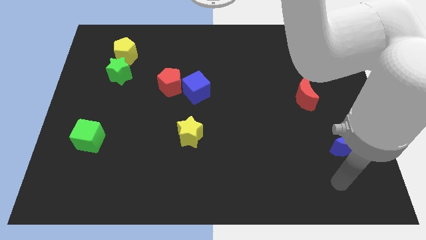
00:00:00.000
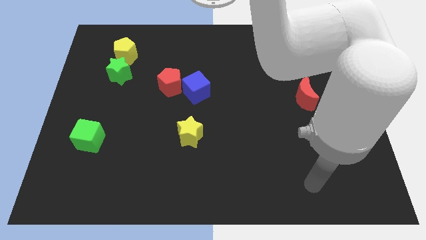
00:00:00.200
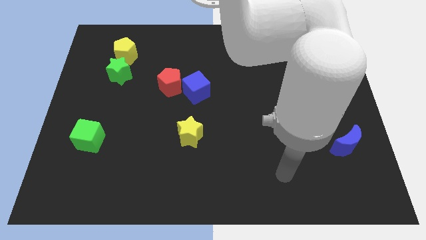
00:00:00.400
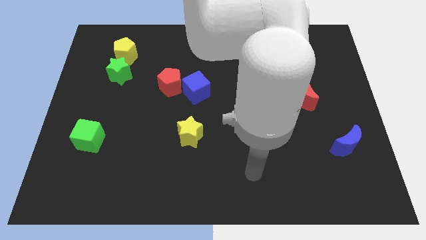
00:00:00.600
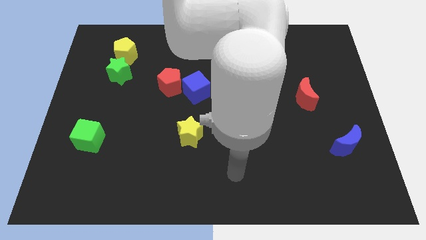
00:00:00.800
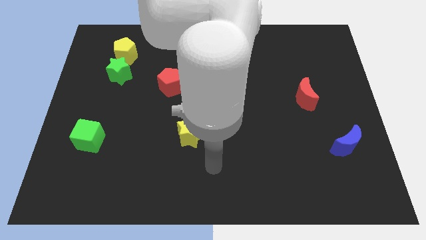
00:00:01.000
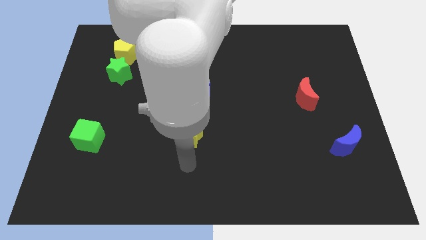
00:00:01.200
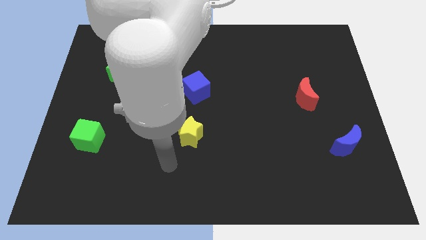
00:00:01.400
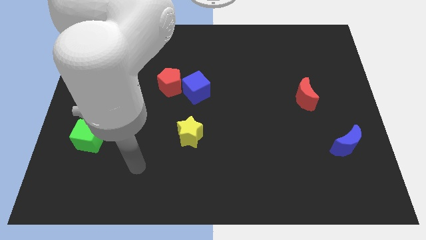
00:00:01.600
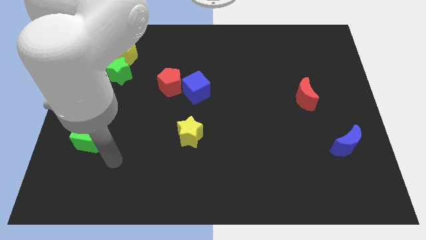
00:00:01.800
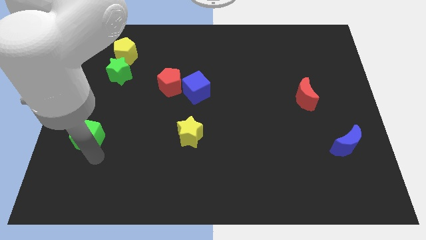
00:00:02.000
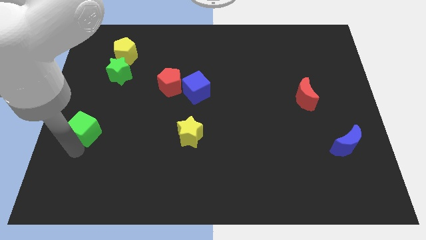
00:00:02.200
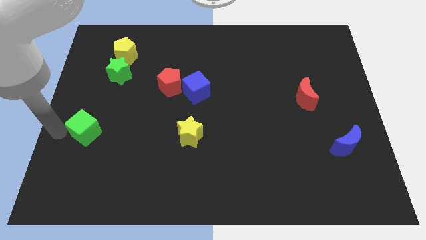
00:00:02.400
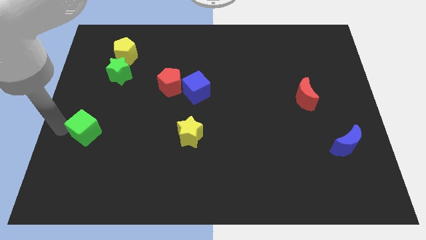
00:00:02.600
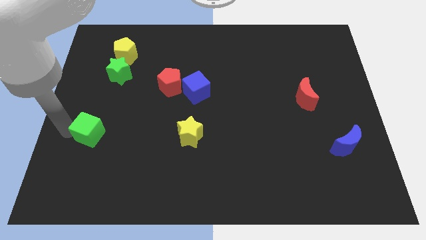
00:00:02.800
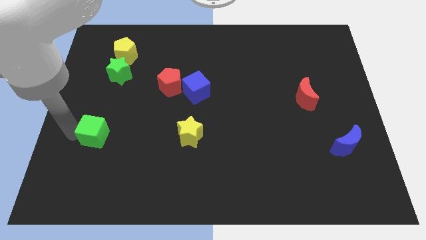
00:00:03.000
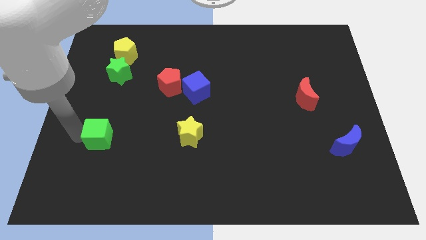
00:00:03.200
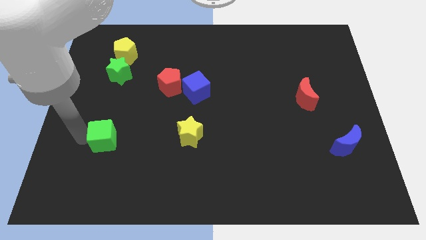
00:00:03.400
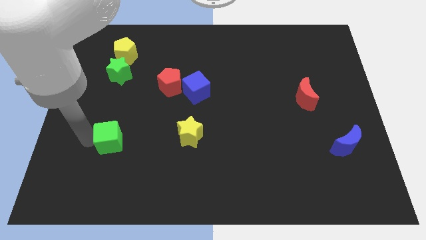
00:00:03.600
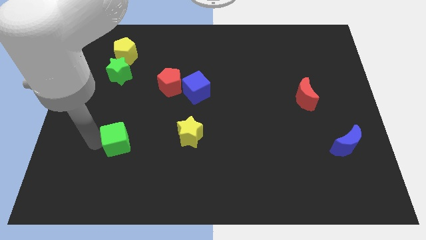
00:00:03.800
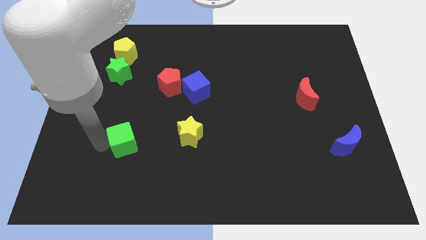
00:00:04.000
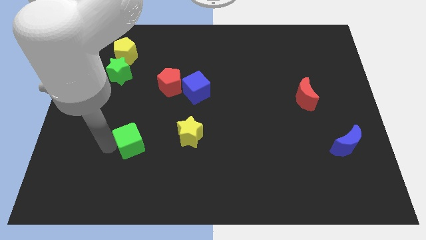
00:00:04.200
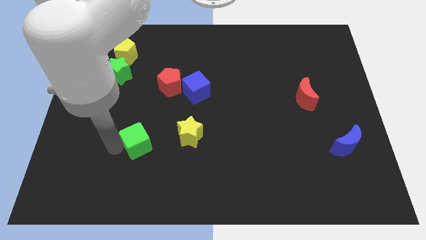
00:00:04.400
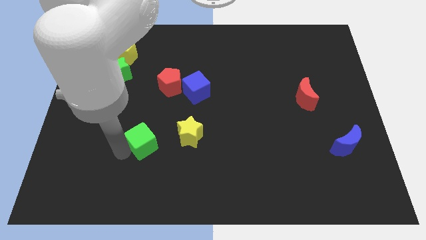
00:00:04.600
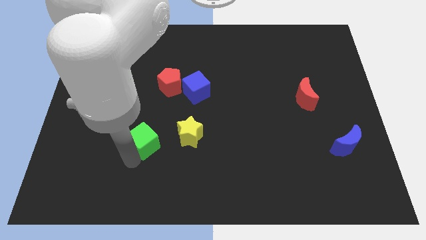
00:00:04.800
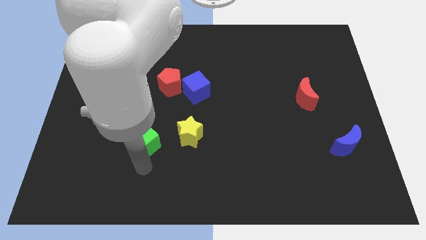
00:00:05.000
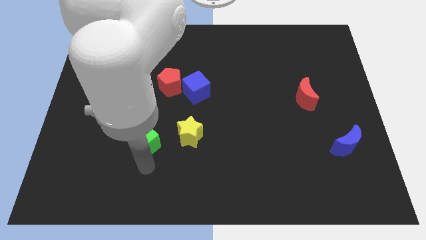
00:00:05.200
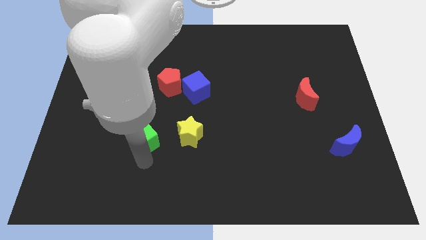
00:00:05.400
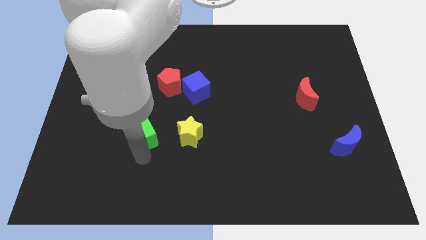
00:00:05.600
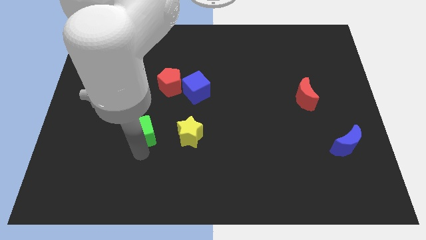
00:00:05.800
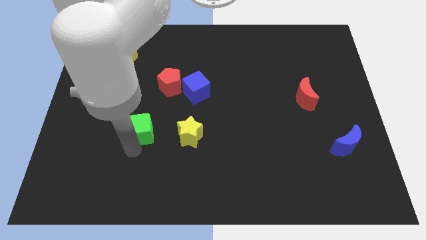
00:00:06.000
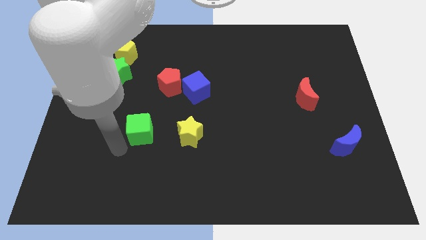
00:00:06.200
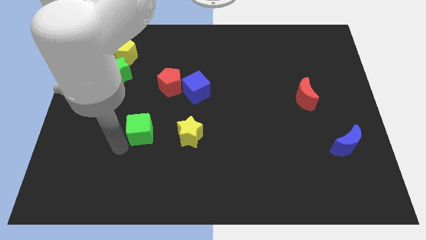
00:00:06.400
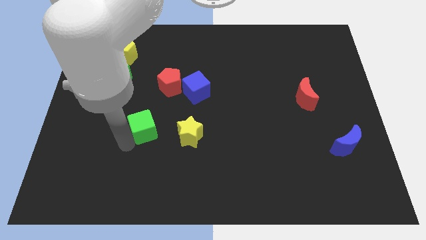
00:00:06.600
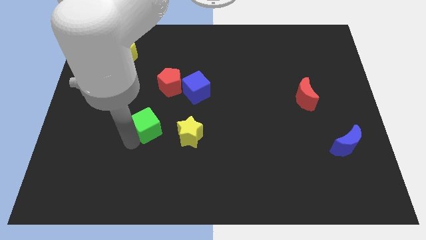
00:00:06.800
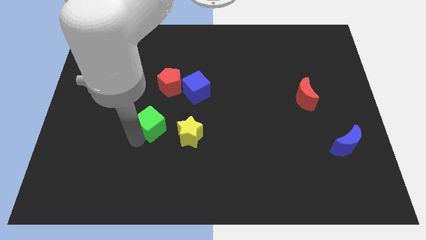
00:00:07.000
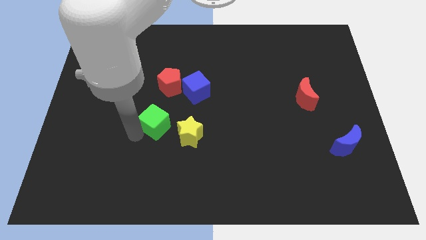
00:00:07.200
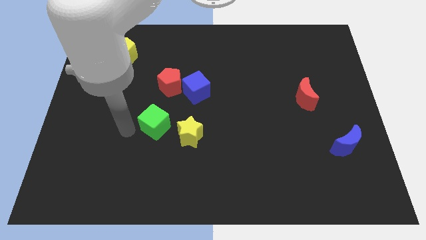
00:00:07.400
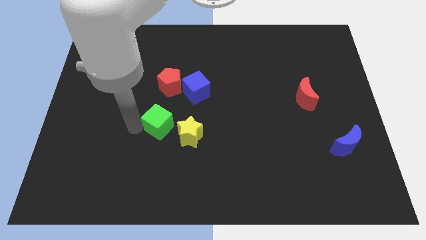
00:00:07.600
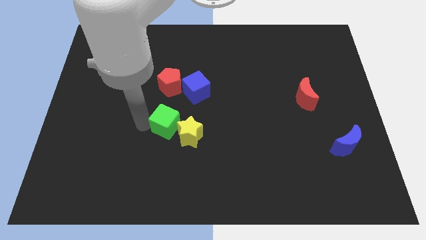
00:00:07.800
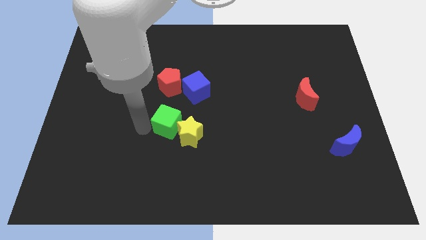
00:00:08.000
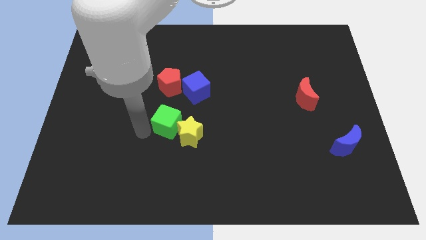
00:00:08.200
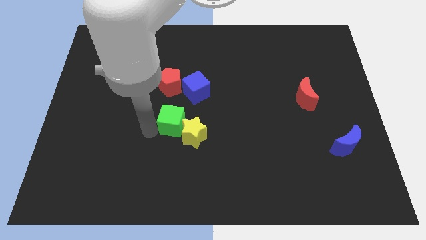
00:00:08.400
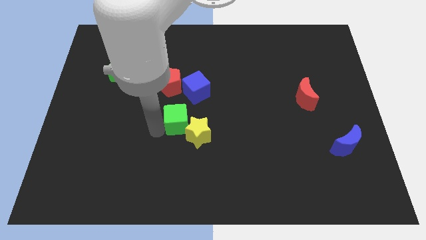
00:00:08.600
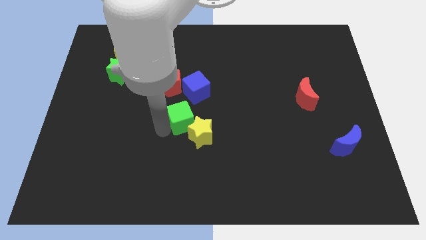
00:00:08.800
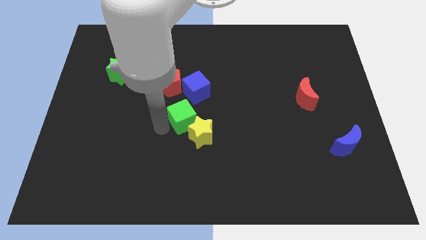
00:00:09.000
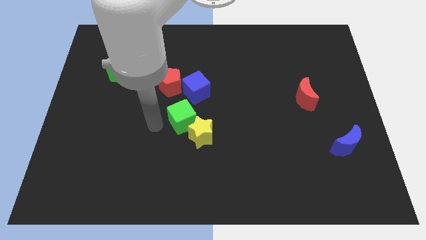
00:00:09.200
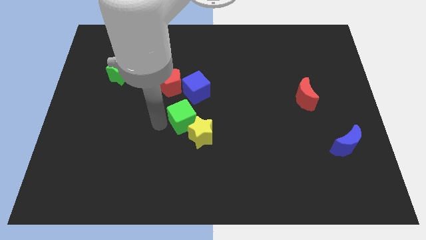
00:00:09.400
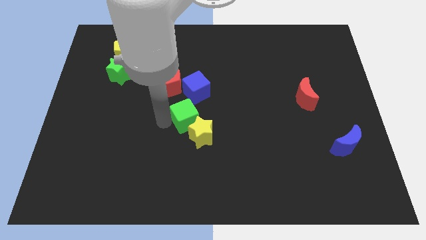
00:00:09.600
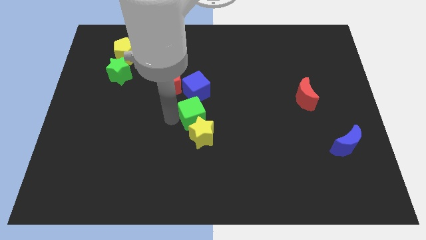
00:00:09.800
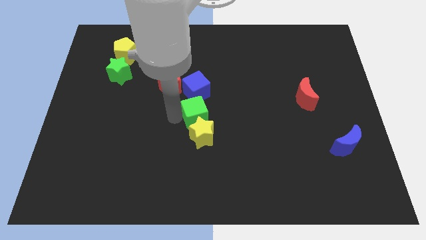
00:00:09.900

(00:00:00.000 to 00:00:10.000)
move the green cube diagonally up and to the right of the yellow star

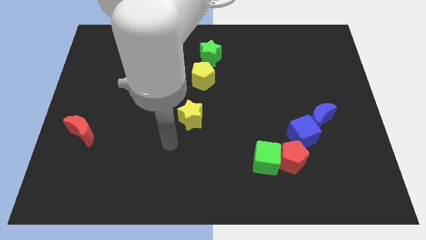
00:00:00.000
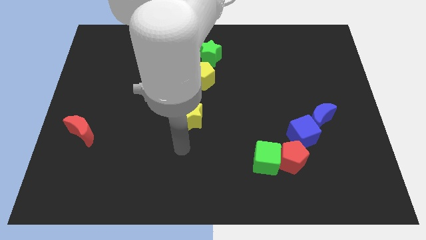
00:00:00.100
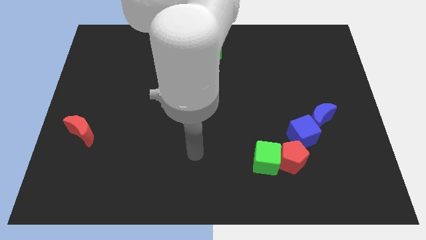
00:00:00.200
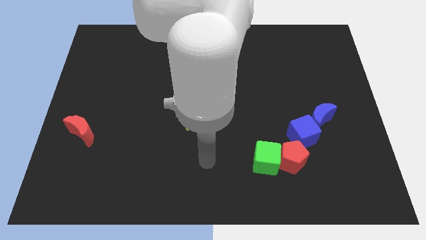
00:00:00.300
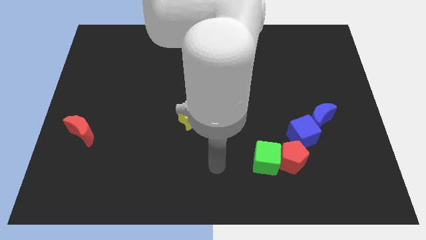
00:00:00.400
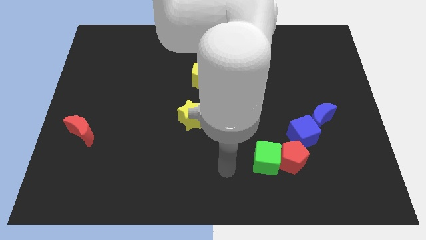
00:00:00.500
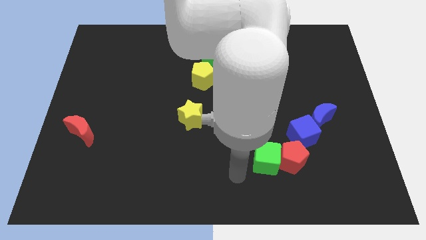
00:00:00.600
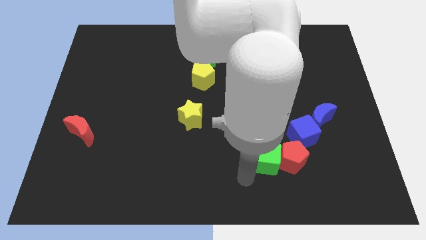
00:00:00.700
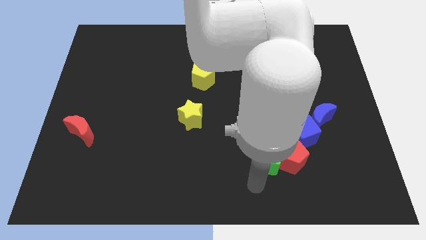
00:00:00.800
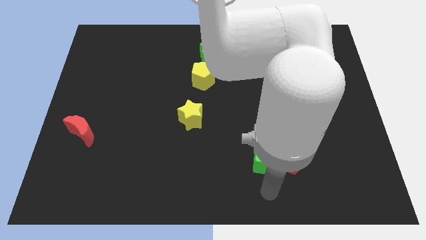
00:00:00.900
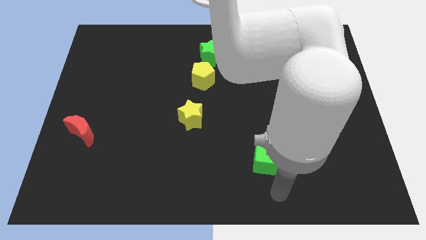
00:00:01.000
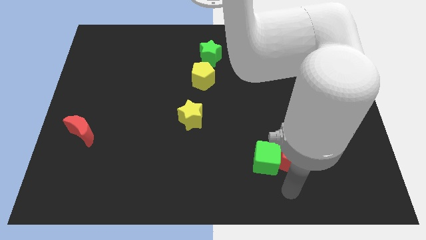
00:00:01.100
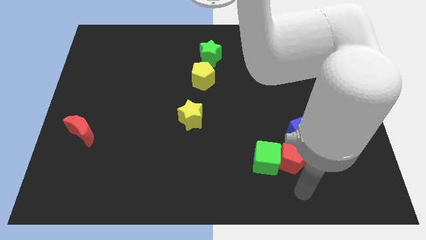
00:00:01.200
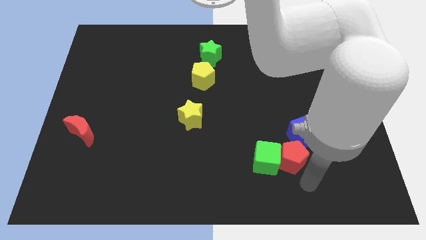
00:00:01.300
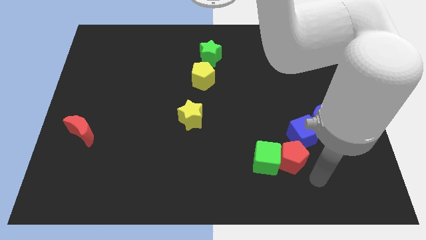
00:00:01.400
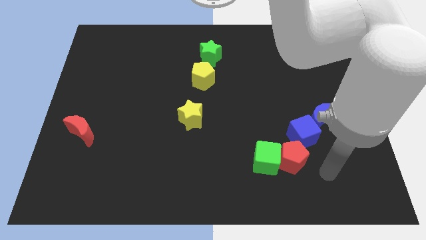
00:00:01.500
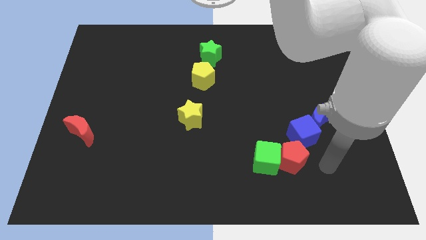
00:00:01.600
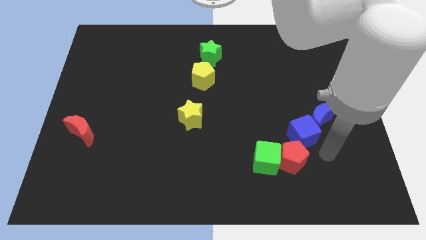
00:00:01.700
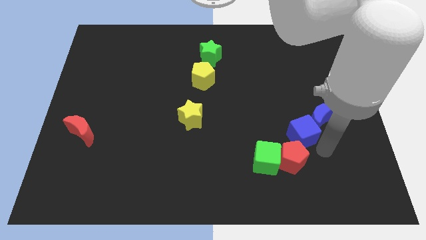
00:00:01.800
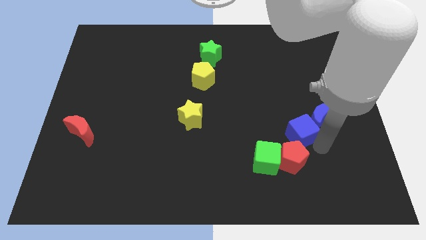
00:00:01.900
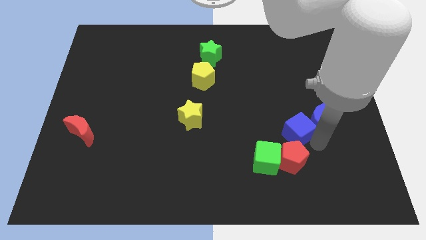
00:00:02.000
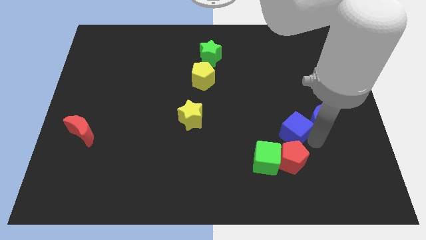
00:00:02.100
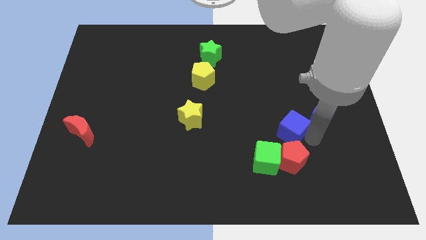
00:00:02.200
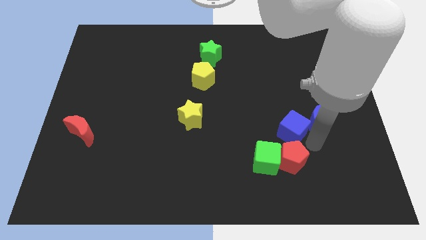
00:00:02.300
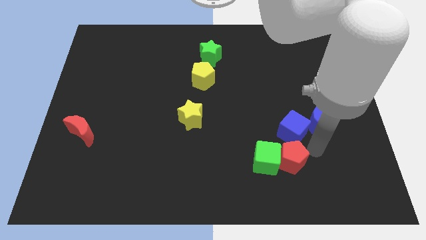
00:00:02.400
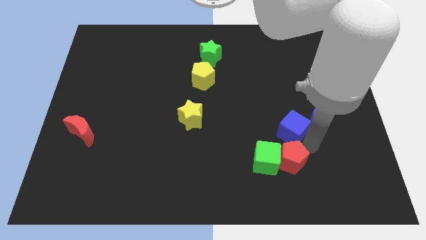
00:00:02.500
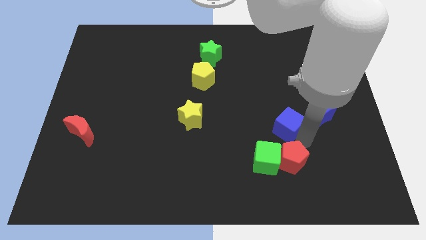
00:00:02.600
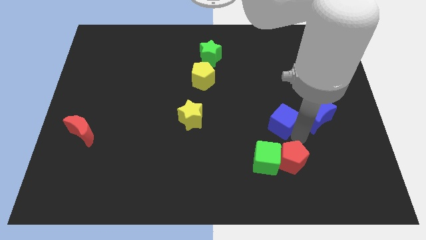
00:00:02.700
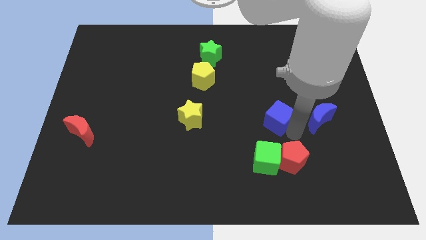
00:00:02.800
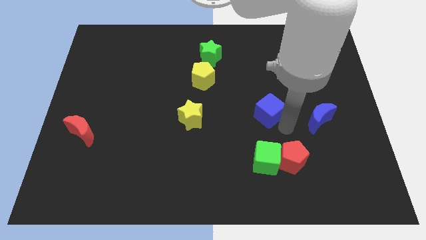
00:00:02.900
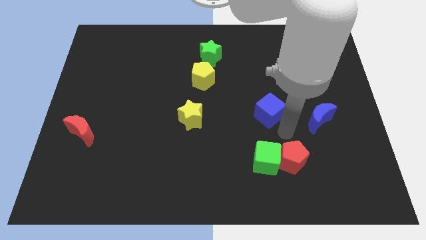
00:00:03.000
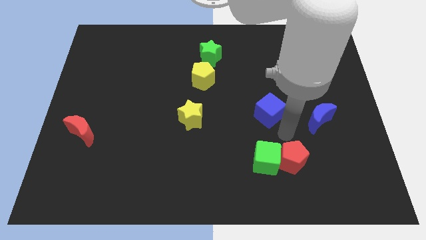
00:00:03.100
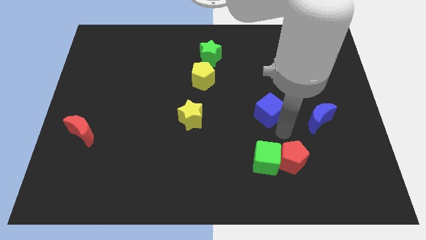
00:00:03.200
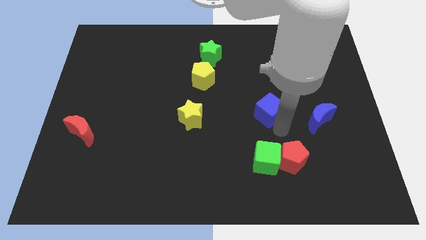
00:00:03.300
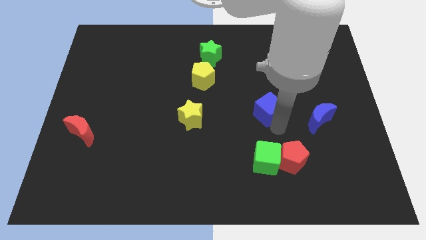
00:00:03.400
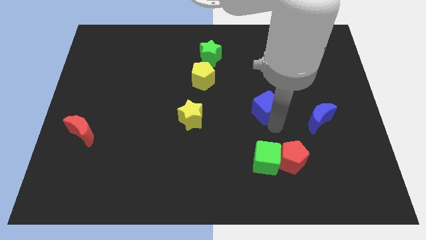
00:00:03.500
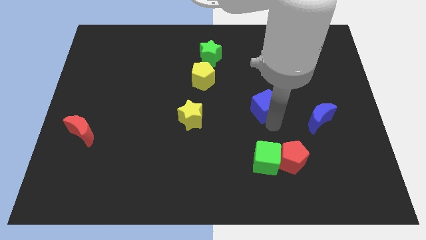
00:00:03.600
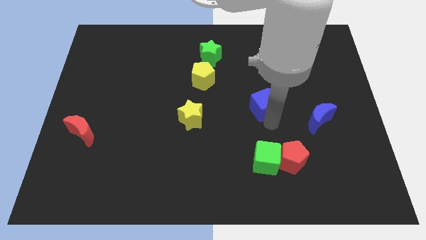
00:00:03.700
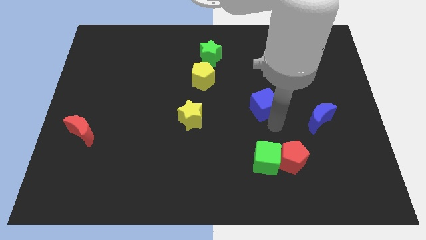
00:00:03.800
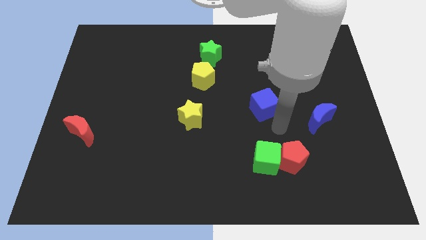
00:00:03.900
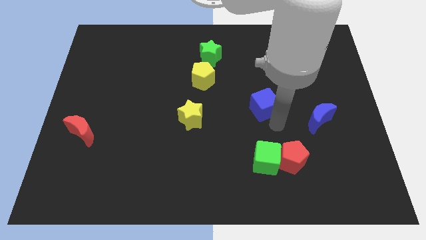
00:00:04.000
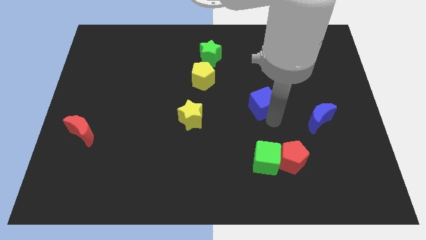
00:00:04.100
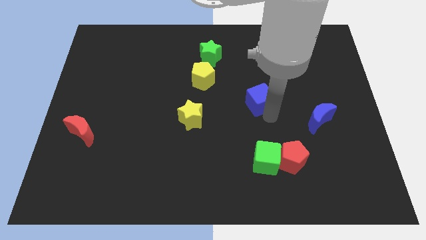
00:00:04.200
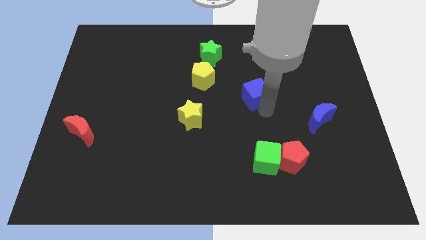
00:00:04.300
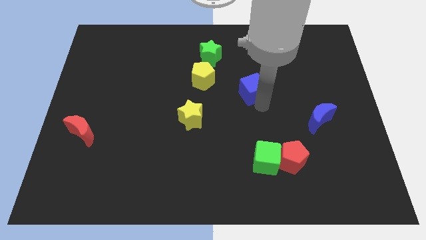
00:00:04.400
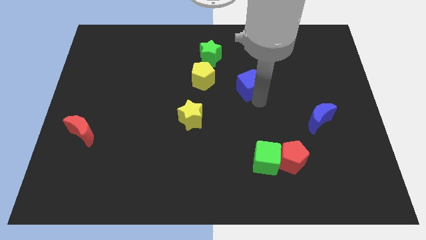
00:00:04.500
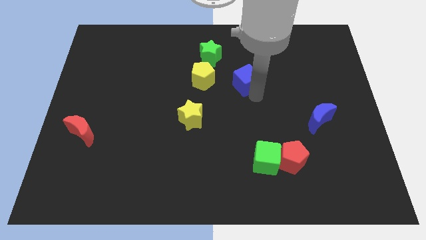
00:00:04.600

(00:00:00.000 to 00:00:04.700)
put the blue cube to the bottom right of the green star
